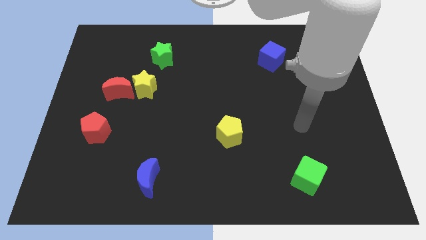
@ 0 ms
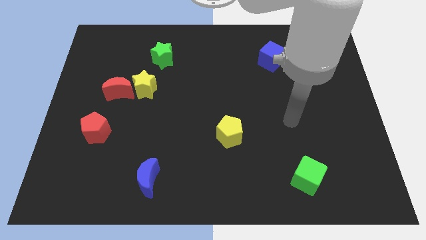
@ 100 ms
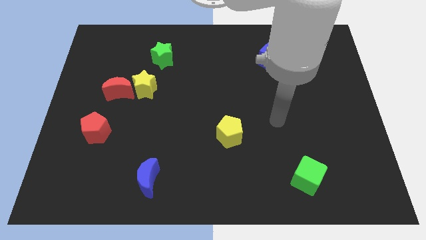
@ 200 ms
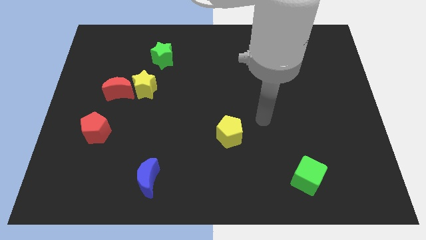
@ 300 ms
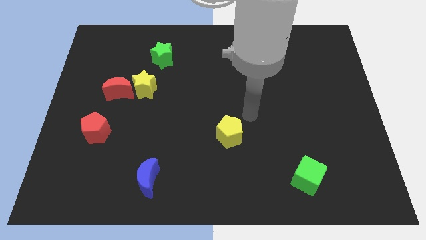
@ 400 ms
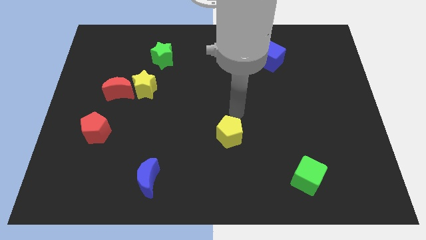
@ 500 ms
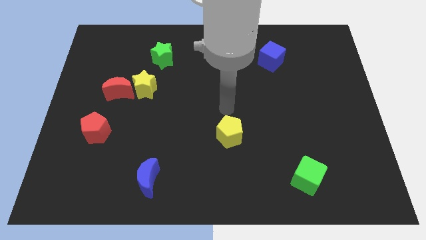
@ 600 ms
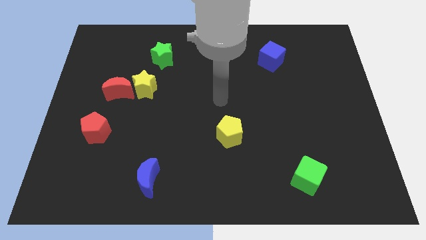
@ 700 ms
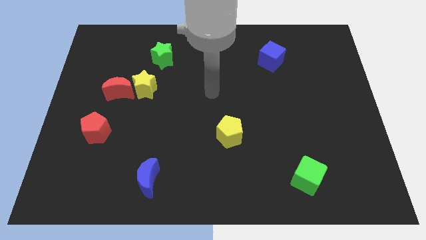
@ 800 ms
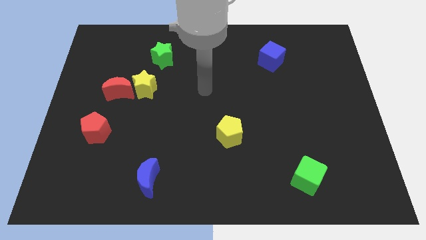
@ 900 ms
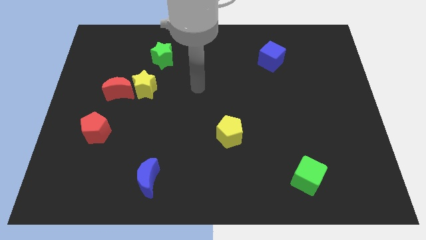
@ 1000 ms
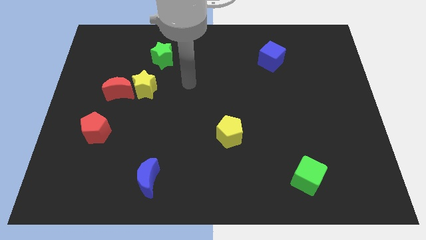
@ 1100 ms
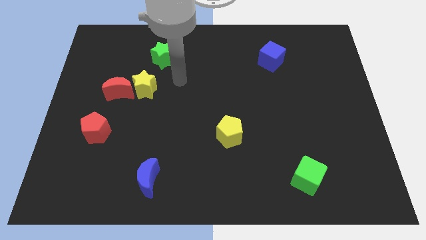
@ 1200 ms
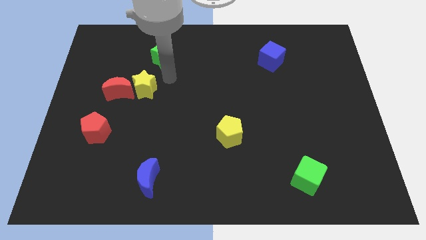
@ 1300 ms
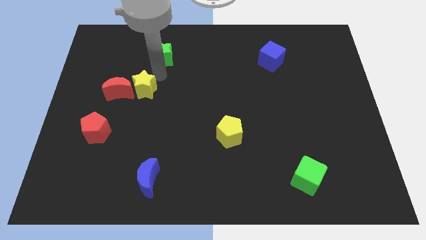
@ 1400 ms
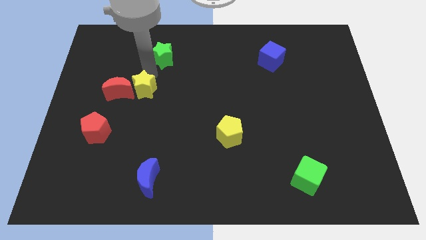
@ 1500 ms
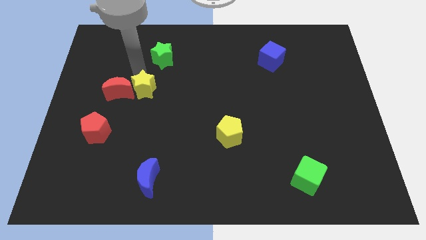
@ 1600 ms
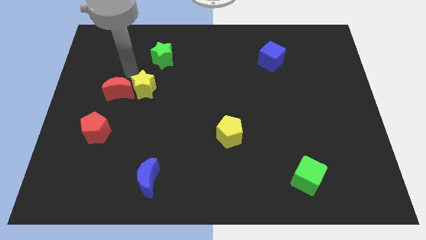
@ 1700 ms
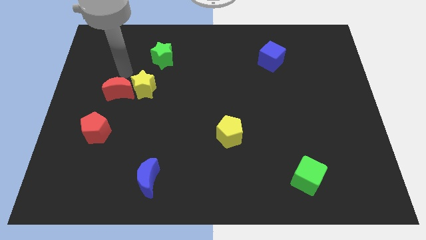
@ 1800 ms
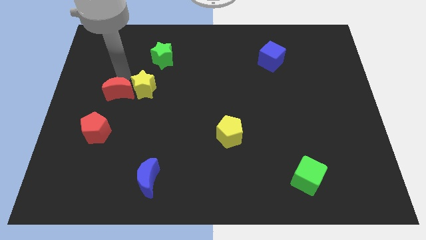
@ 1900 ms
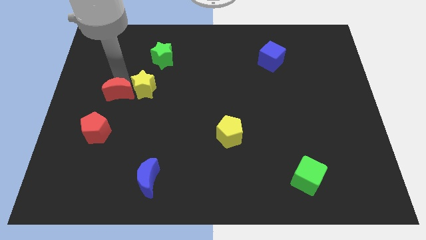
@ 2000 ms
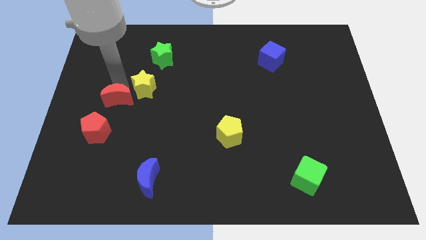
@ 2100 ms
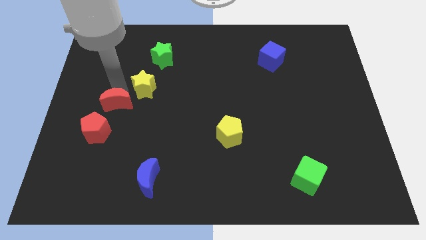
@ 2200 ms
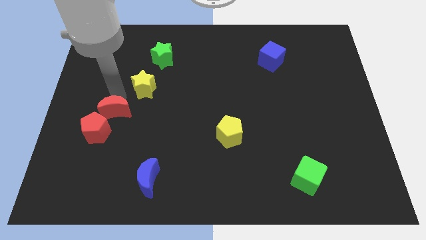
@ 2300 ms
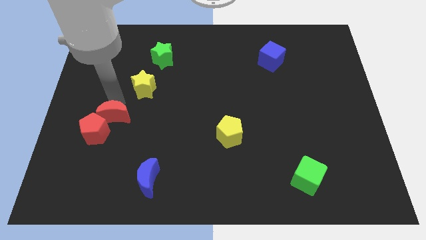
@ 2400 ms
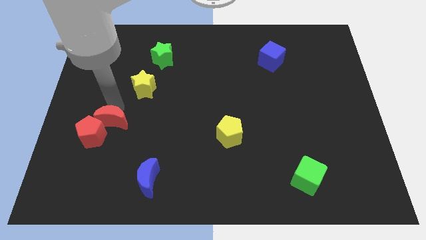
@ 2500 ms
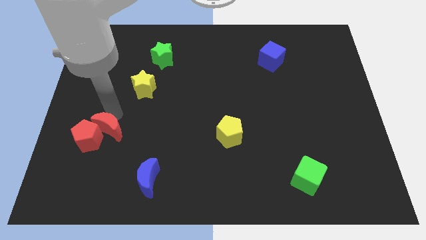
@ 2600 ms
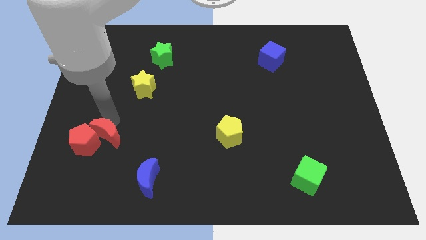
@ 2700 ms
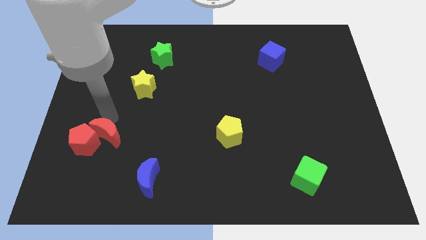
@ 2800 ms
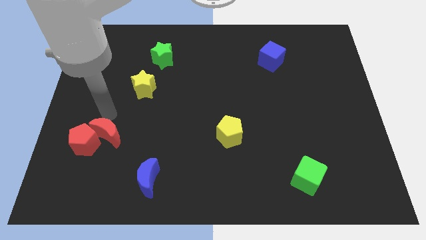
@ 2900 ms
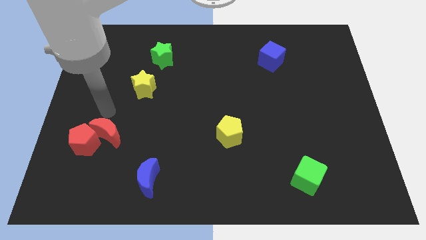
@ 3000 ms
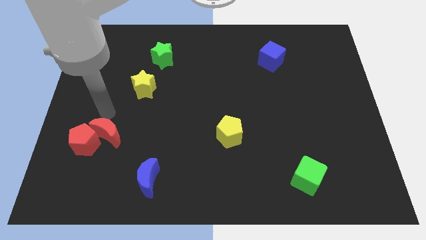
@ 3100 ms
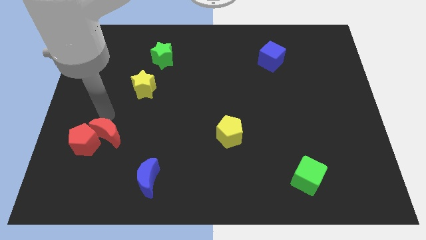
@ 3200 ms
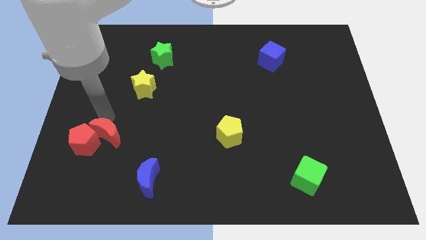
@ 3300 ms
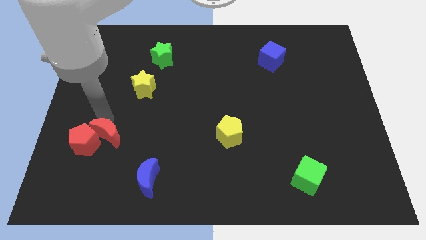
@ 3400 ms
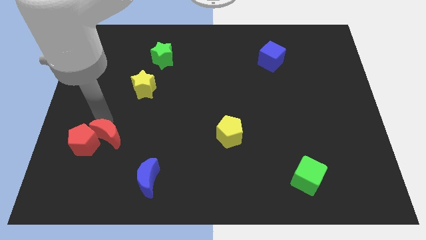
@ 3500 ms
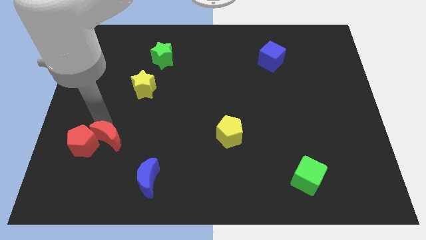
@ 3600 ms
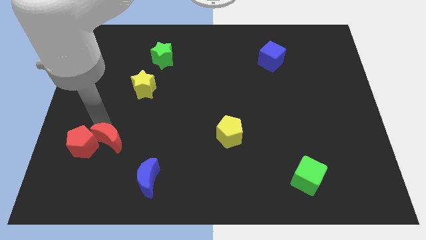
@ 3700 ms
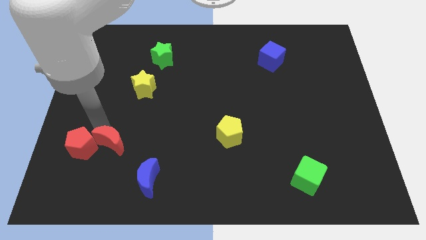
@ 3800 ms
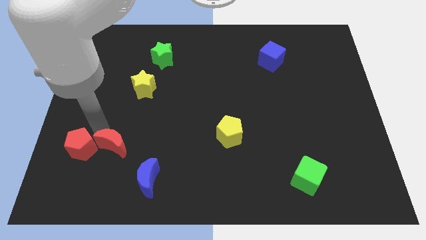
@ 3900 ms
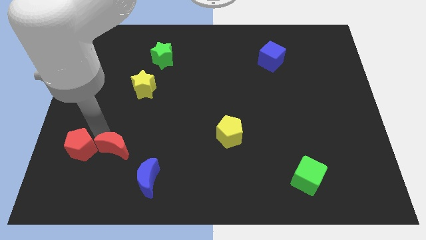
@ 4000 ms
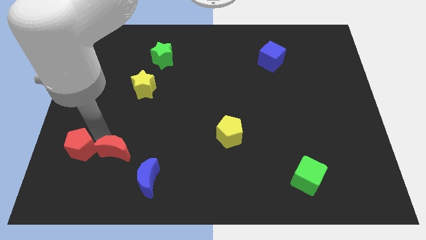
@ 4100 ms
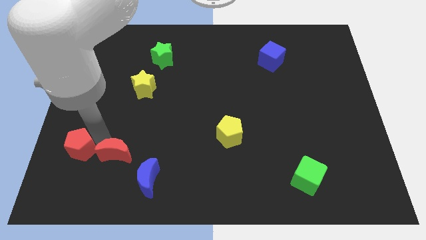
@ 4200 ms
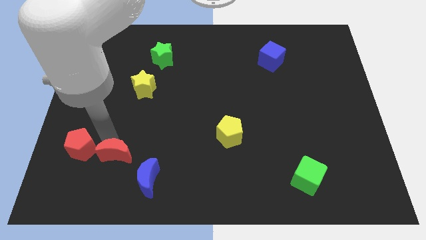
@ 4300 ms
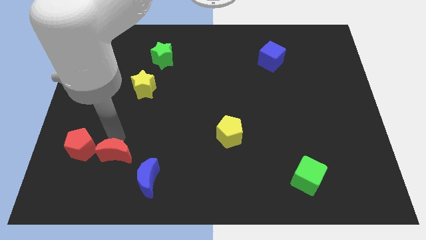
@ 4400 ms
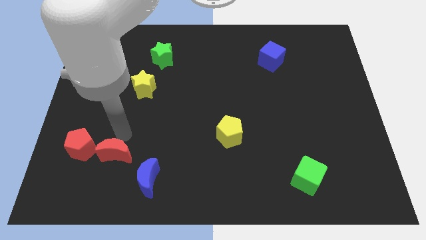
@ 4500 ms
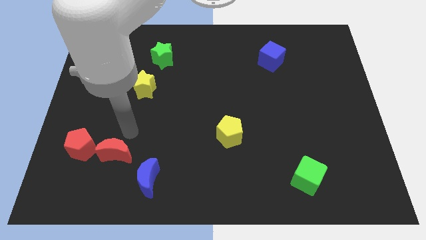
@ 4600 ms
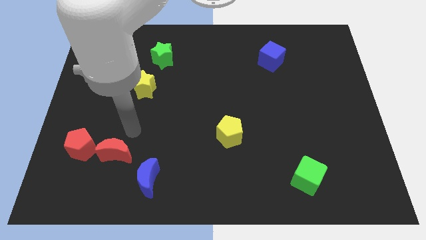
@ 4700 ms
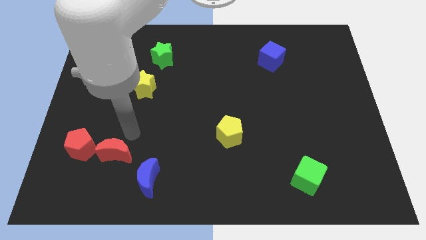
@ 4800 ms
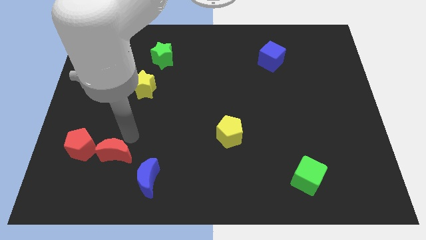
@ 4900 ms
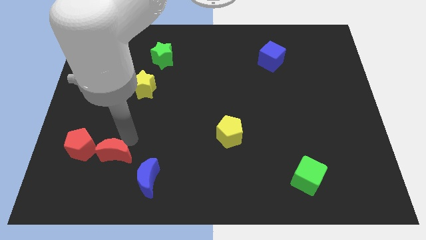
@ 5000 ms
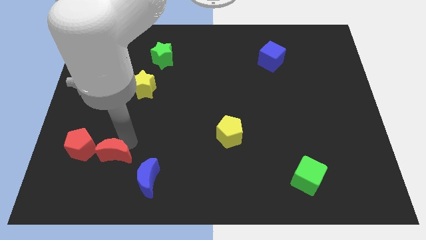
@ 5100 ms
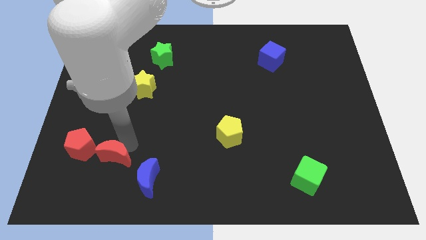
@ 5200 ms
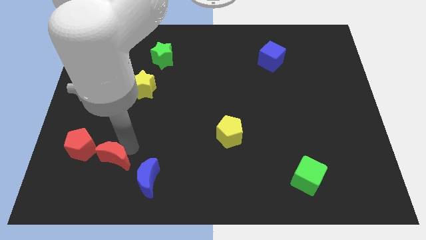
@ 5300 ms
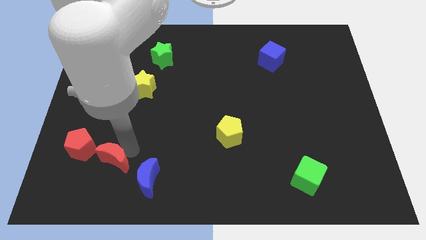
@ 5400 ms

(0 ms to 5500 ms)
slide the red moon left of the blue moon
